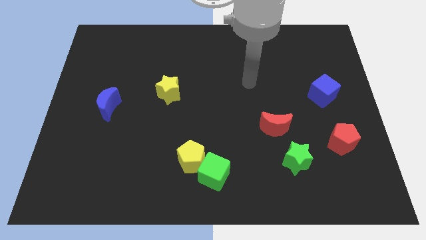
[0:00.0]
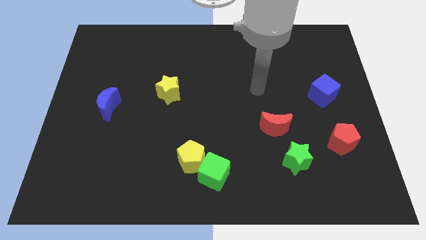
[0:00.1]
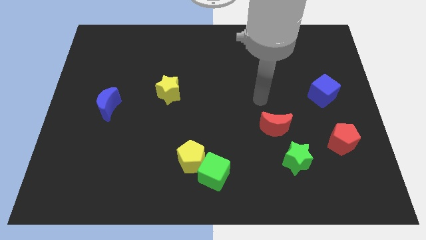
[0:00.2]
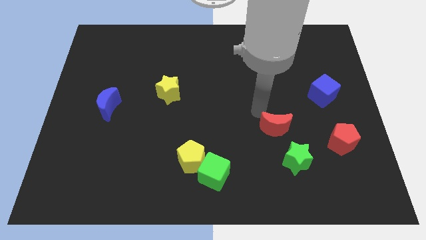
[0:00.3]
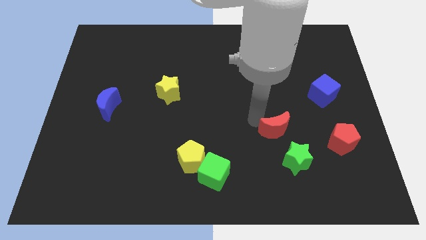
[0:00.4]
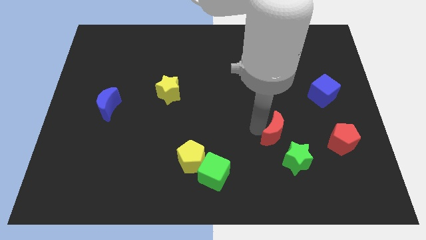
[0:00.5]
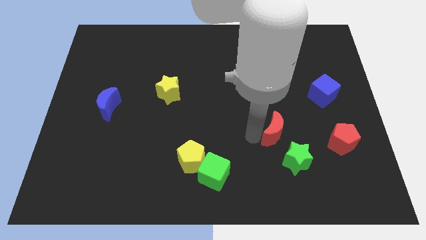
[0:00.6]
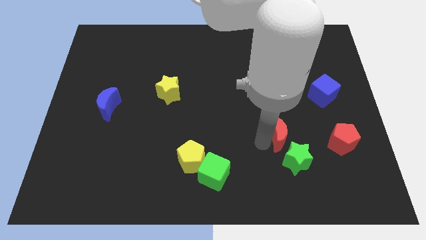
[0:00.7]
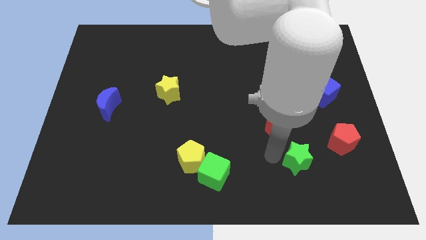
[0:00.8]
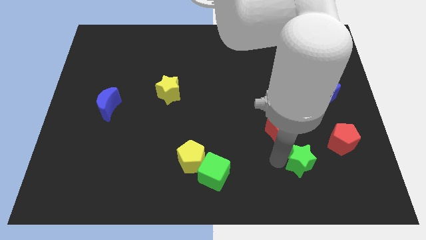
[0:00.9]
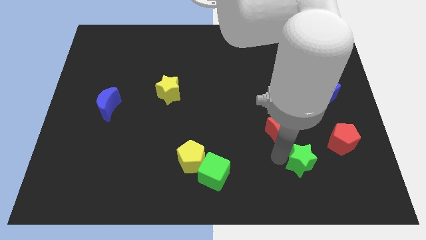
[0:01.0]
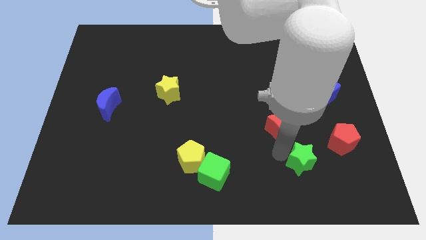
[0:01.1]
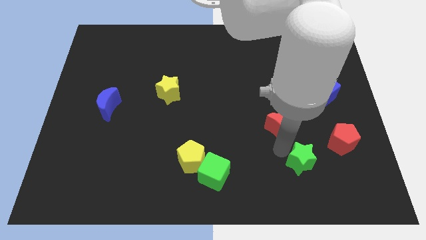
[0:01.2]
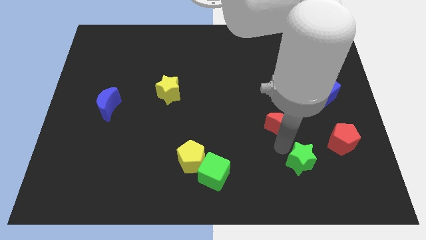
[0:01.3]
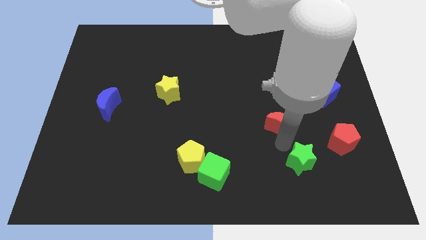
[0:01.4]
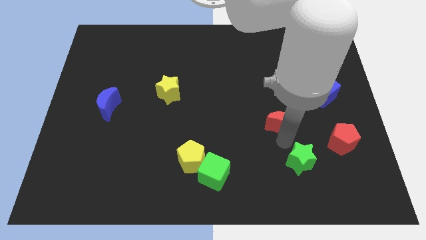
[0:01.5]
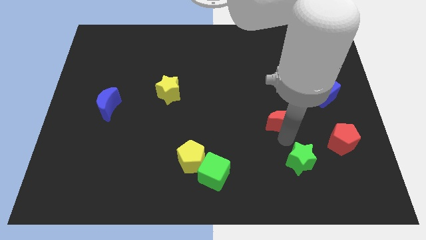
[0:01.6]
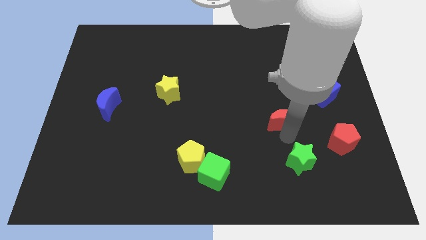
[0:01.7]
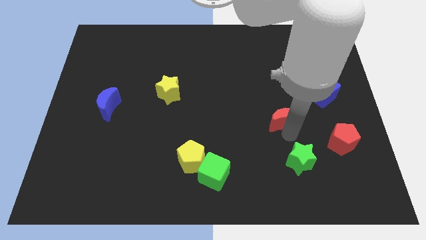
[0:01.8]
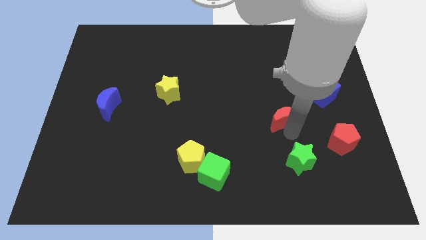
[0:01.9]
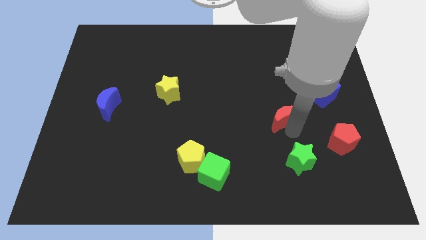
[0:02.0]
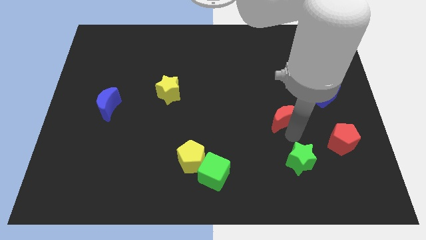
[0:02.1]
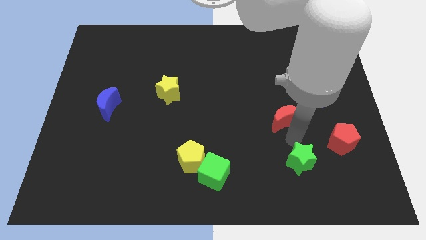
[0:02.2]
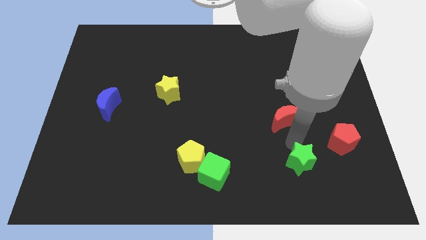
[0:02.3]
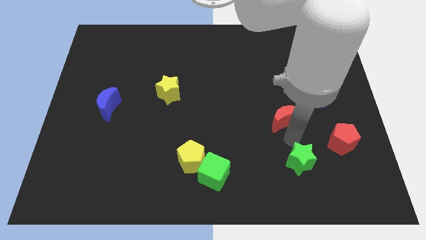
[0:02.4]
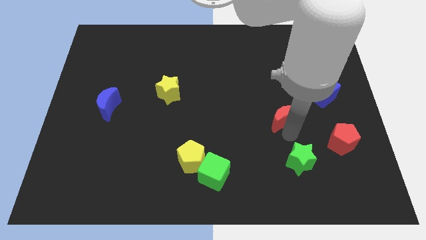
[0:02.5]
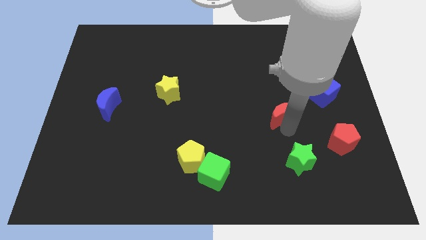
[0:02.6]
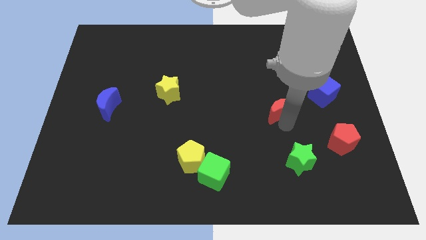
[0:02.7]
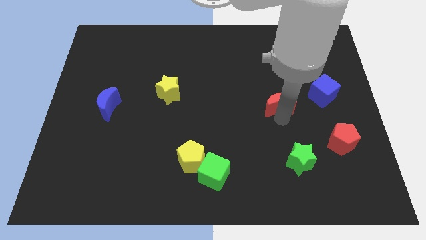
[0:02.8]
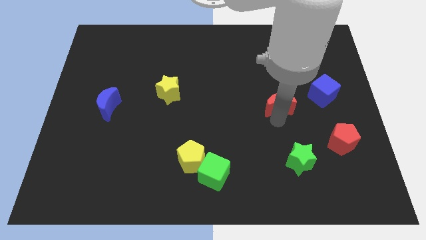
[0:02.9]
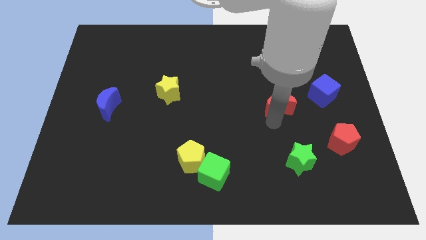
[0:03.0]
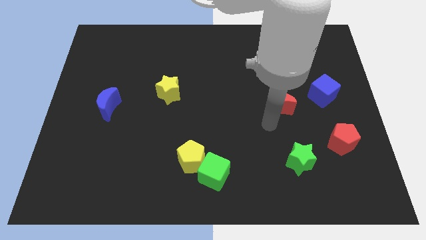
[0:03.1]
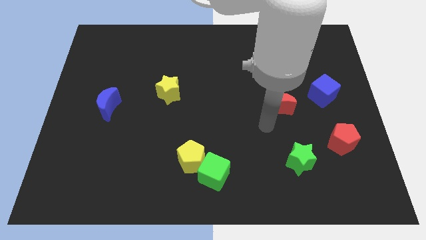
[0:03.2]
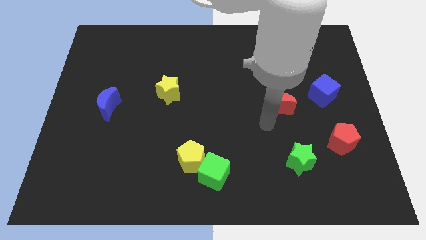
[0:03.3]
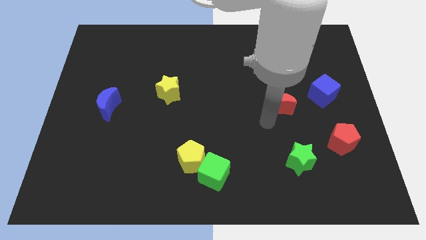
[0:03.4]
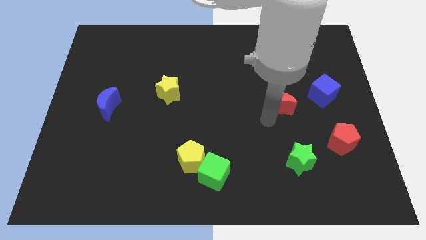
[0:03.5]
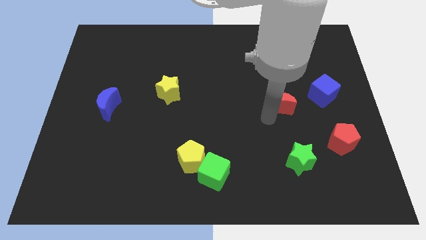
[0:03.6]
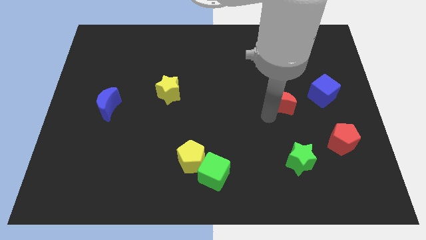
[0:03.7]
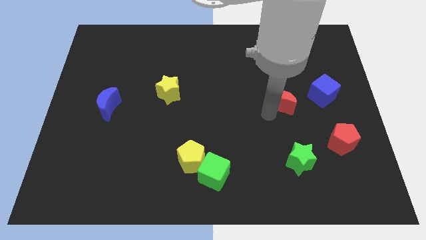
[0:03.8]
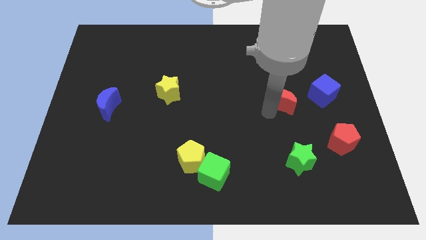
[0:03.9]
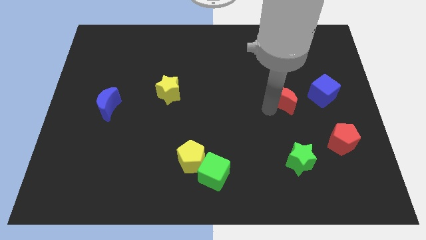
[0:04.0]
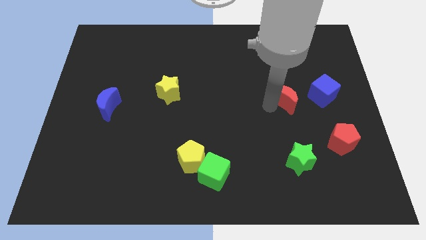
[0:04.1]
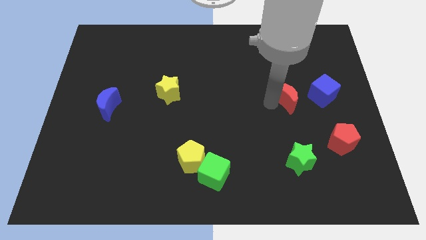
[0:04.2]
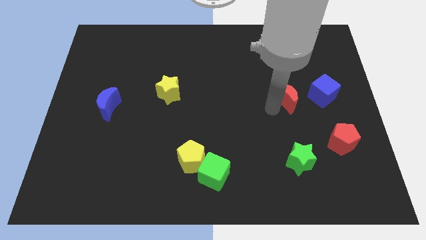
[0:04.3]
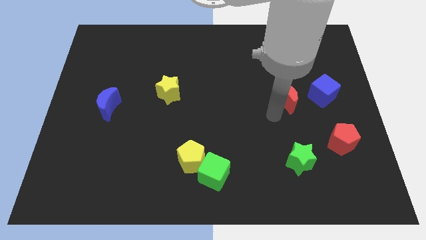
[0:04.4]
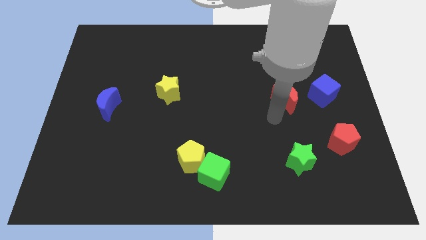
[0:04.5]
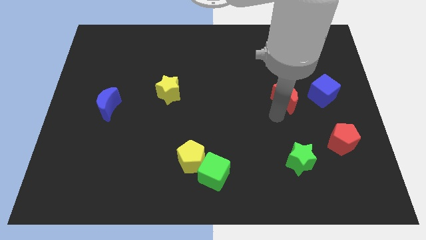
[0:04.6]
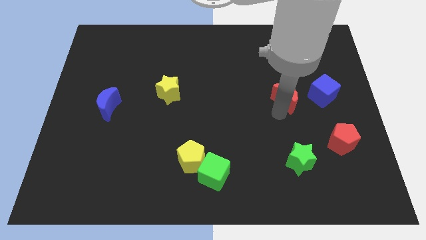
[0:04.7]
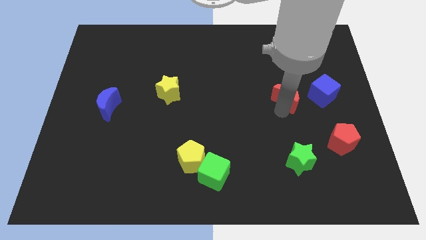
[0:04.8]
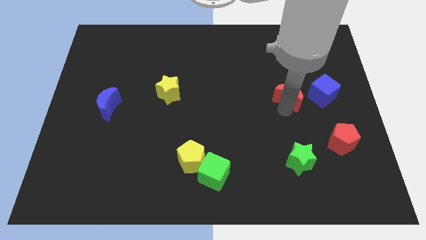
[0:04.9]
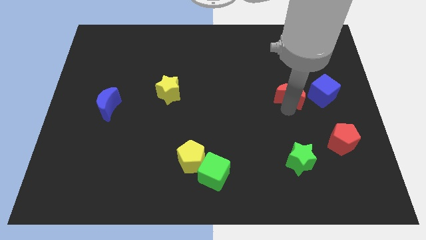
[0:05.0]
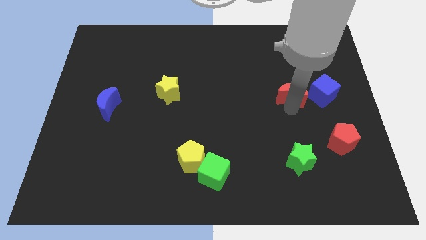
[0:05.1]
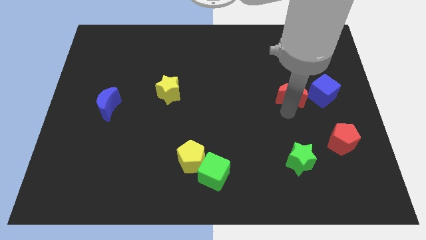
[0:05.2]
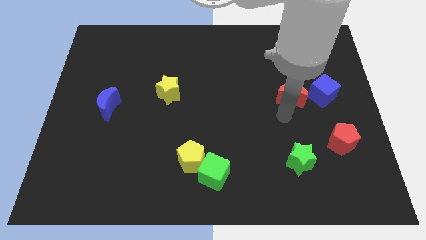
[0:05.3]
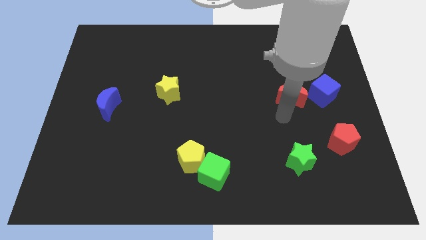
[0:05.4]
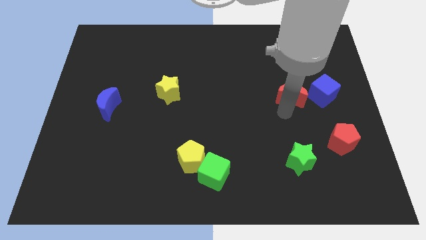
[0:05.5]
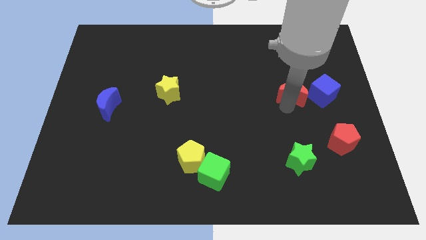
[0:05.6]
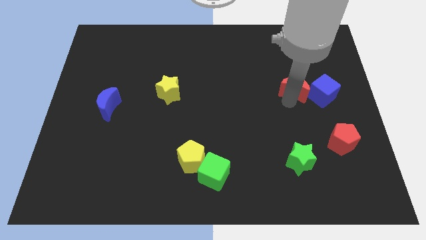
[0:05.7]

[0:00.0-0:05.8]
put the red moon to the top left side of the blue cube

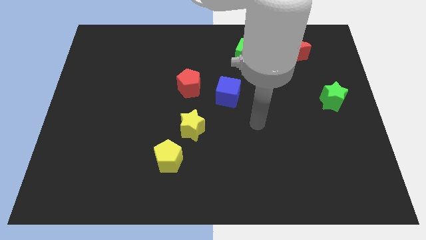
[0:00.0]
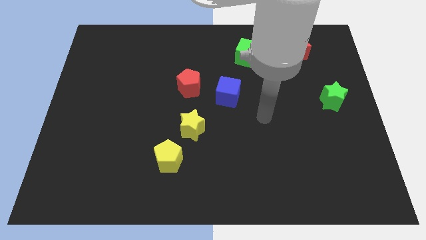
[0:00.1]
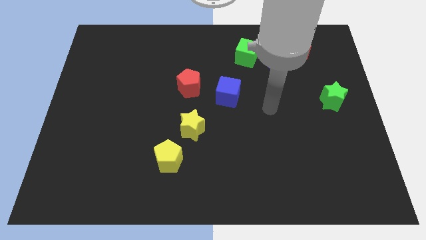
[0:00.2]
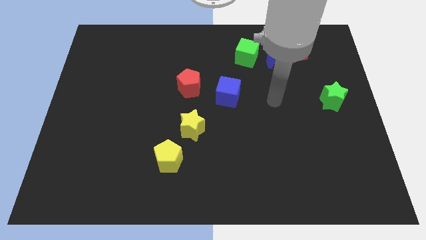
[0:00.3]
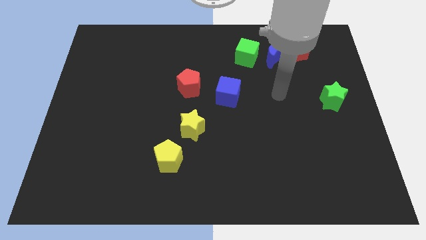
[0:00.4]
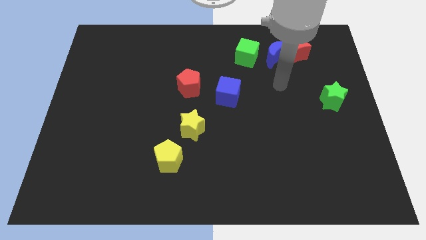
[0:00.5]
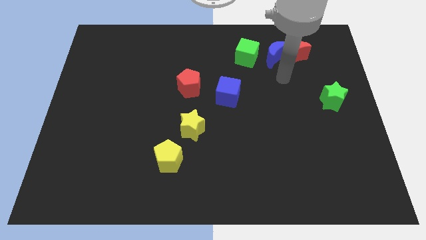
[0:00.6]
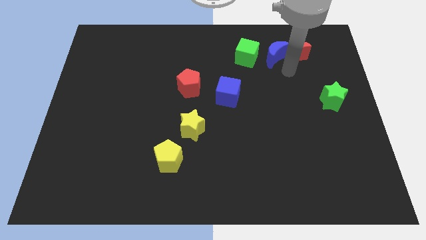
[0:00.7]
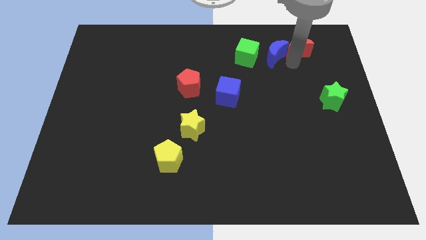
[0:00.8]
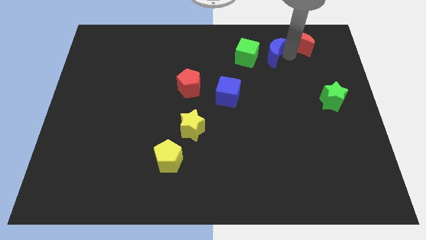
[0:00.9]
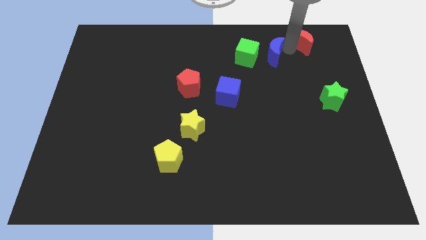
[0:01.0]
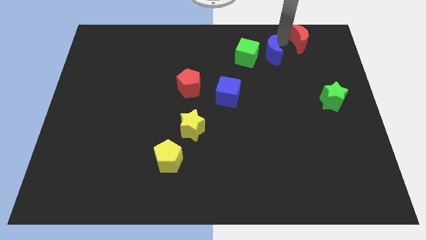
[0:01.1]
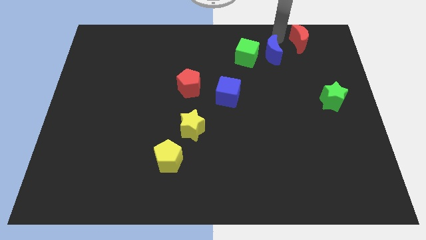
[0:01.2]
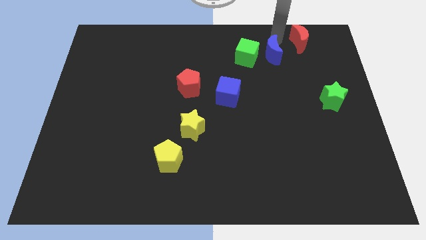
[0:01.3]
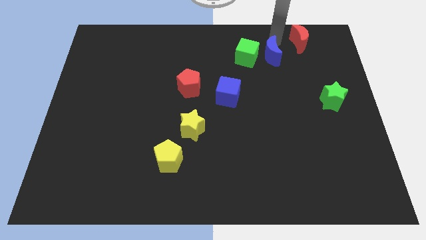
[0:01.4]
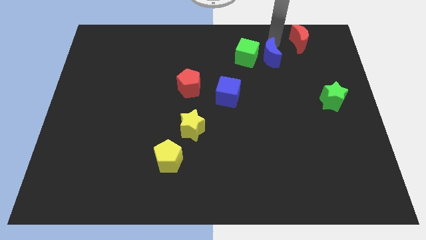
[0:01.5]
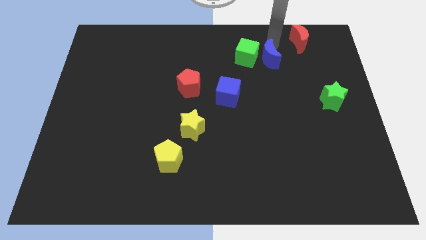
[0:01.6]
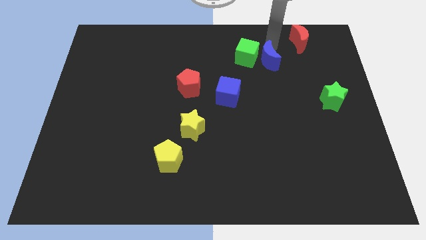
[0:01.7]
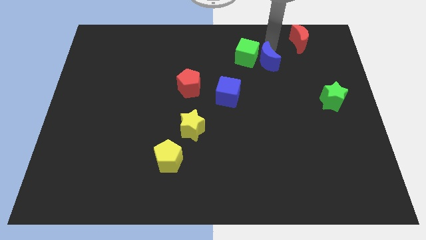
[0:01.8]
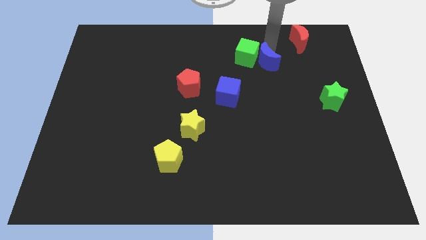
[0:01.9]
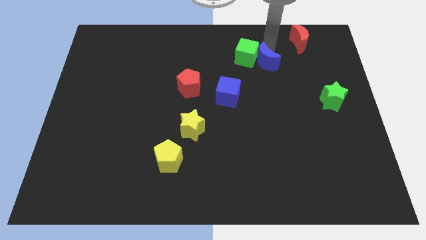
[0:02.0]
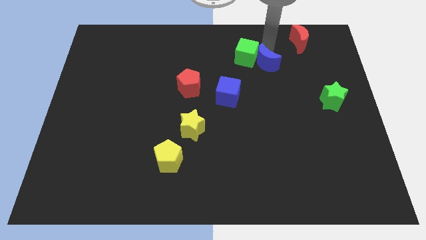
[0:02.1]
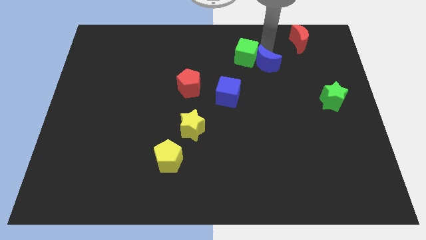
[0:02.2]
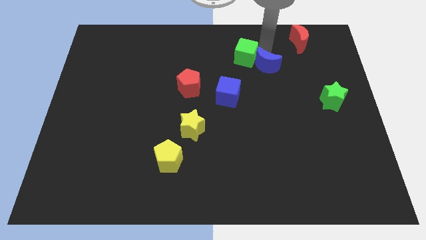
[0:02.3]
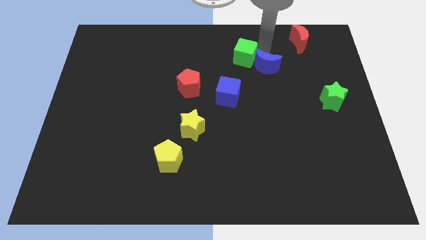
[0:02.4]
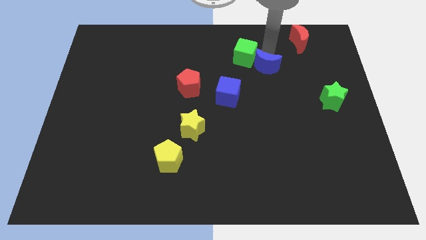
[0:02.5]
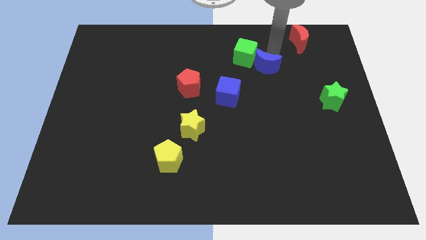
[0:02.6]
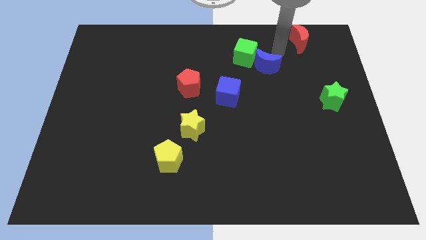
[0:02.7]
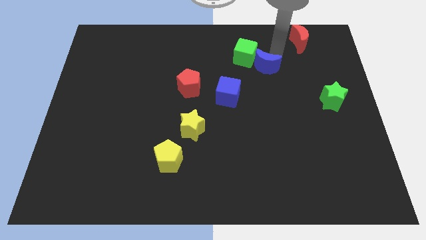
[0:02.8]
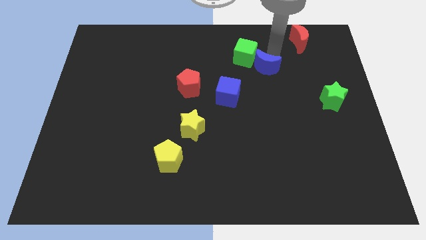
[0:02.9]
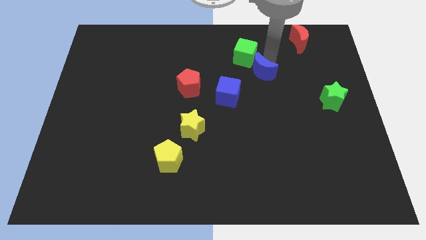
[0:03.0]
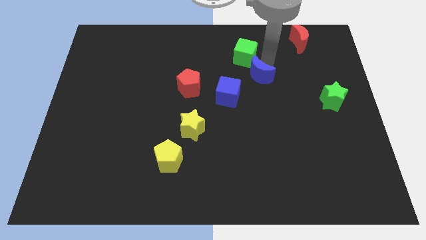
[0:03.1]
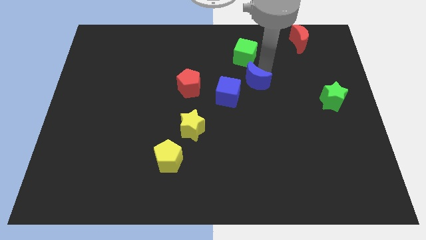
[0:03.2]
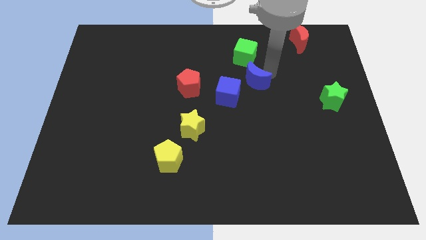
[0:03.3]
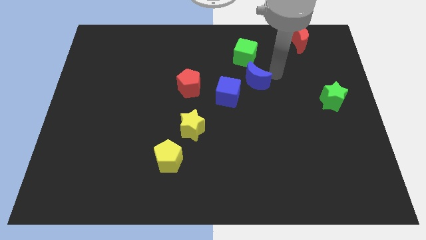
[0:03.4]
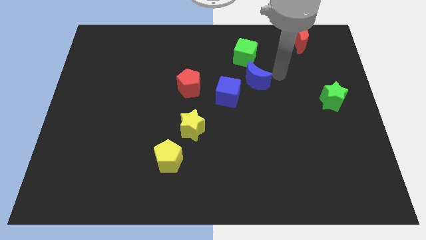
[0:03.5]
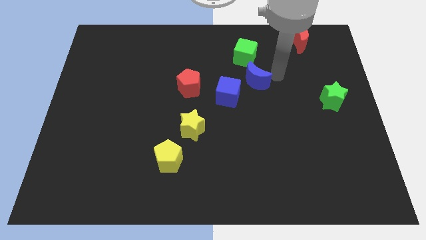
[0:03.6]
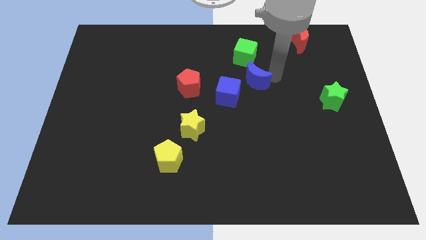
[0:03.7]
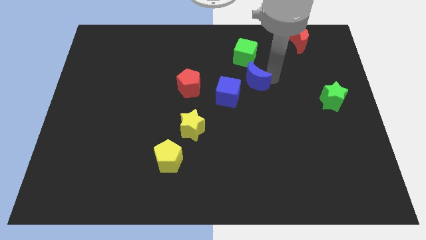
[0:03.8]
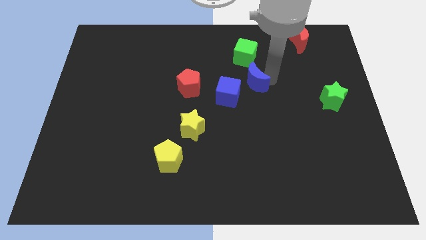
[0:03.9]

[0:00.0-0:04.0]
push the blue moon to the right side of the red pentagon
